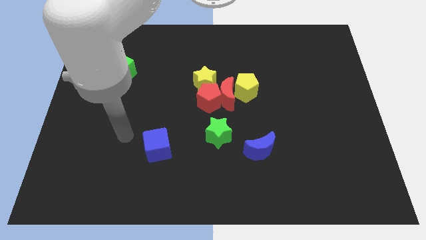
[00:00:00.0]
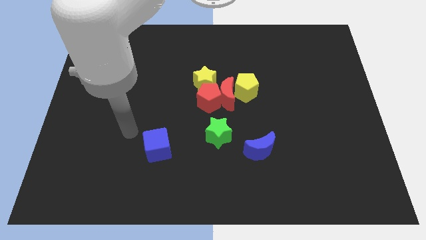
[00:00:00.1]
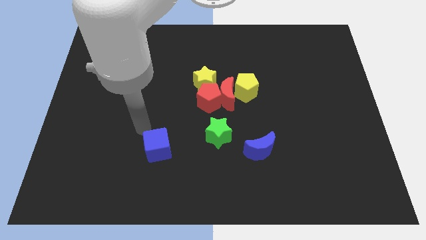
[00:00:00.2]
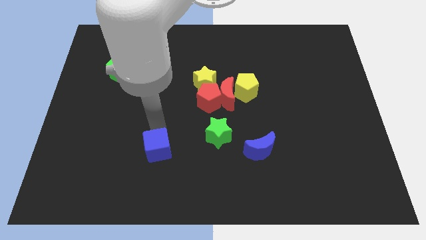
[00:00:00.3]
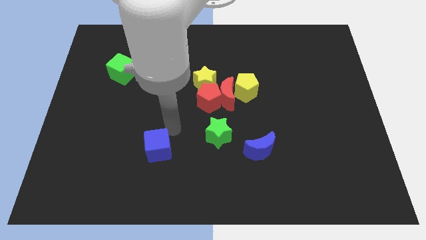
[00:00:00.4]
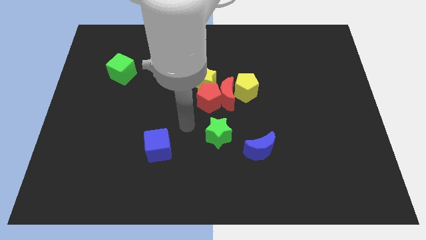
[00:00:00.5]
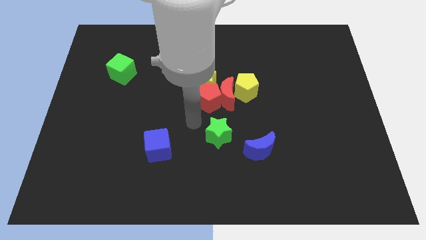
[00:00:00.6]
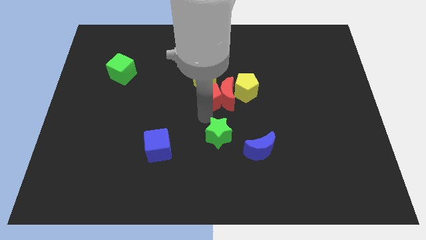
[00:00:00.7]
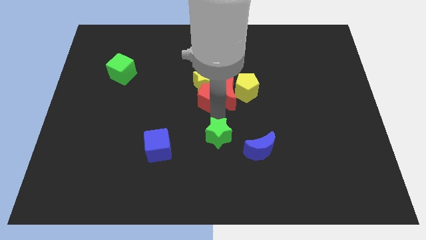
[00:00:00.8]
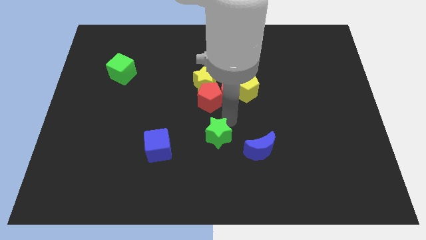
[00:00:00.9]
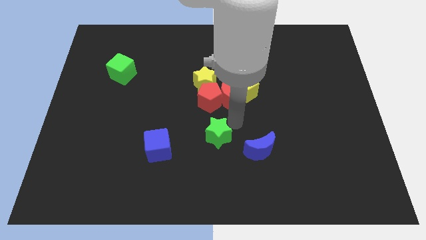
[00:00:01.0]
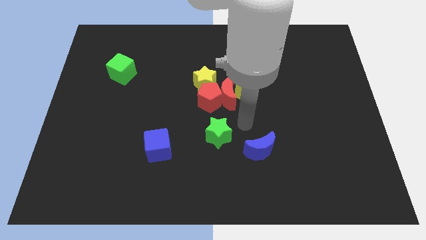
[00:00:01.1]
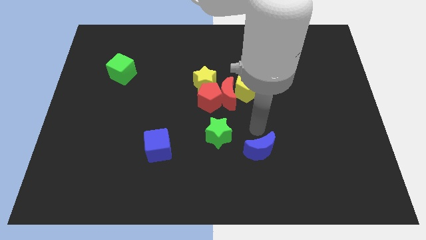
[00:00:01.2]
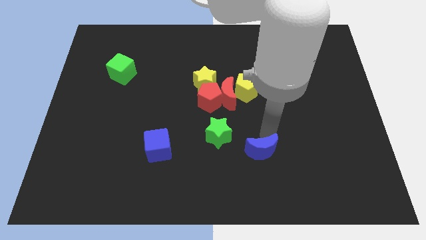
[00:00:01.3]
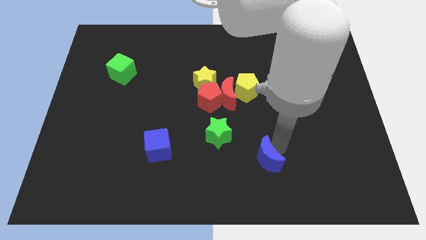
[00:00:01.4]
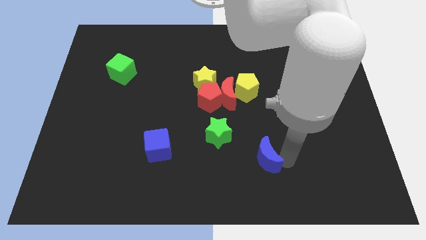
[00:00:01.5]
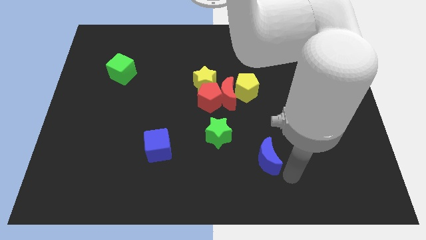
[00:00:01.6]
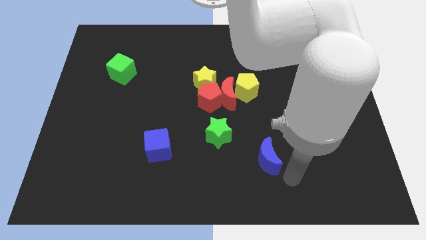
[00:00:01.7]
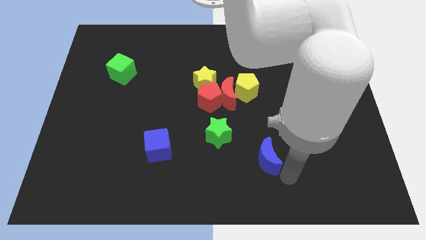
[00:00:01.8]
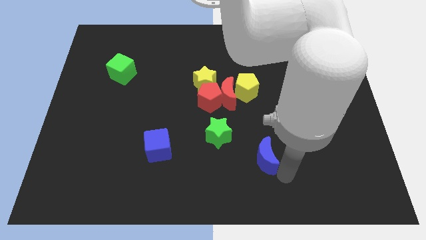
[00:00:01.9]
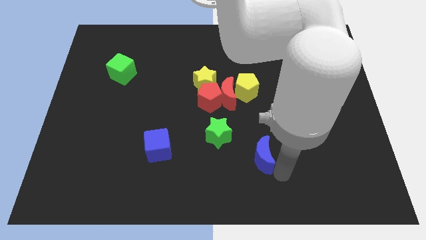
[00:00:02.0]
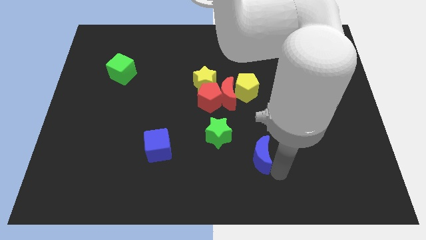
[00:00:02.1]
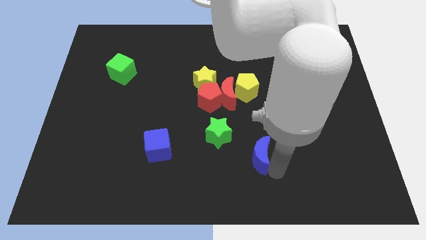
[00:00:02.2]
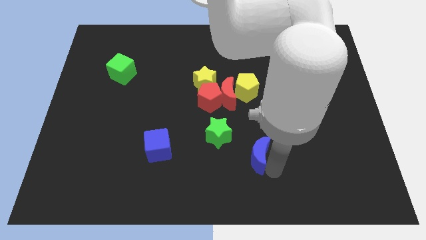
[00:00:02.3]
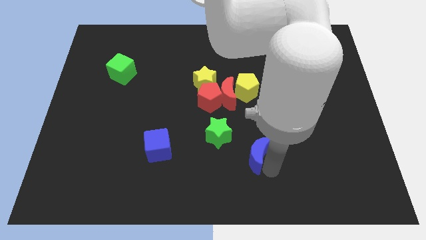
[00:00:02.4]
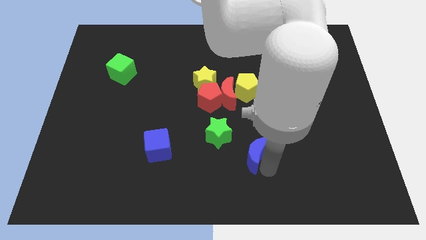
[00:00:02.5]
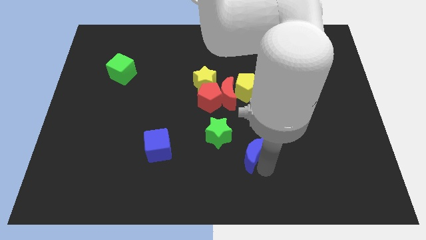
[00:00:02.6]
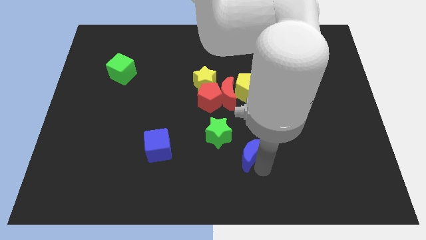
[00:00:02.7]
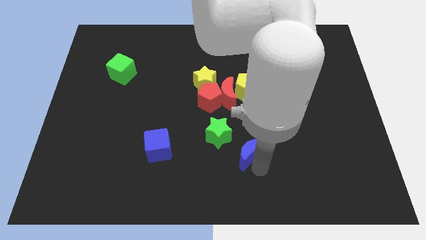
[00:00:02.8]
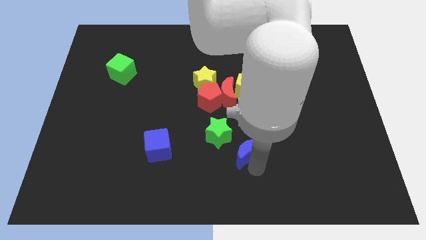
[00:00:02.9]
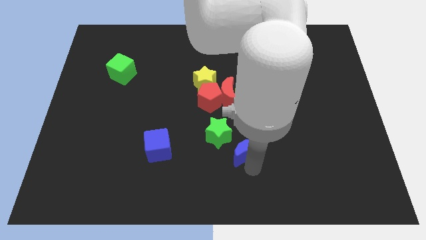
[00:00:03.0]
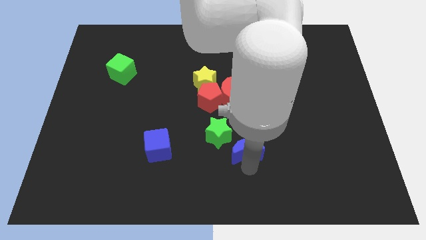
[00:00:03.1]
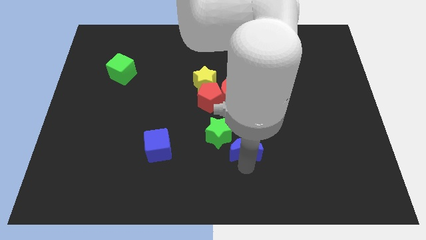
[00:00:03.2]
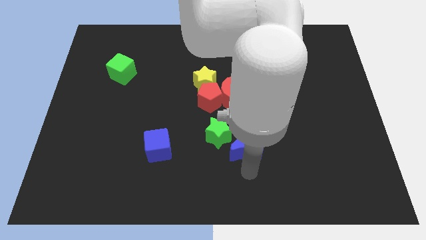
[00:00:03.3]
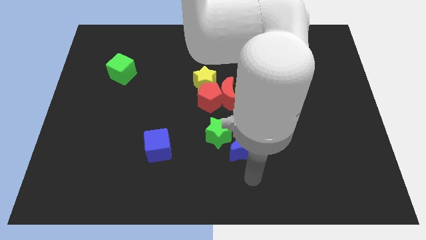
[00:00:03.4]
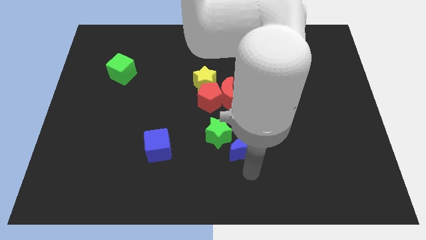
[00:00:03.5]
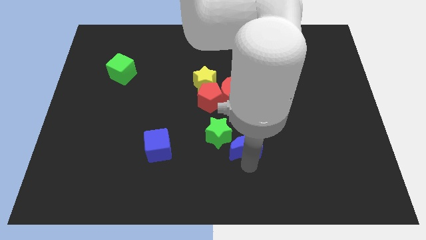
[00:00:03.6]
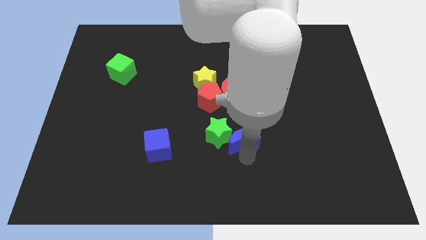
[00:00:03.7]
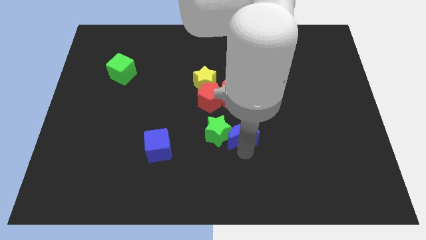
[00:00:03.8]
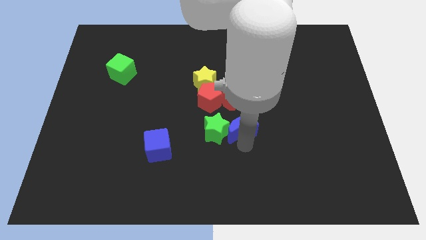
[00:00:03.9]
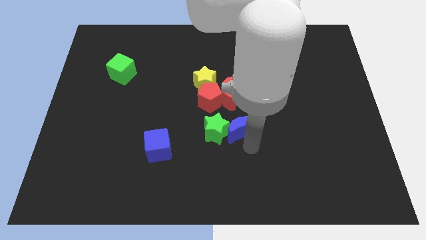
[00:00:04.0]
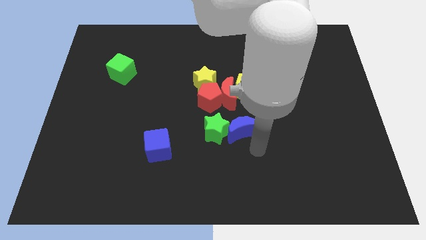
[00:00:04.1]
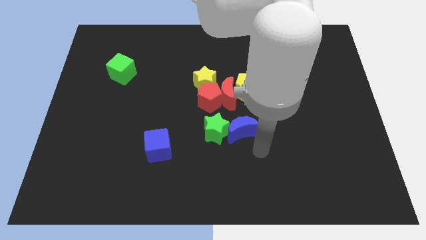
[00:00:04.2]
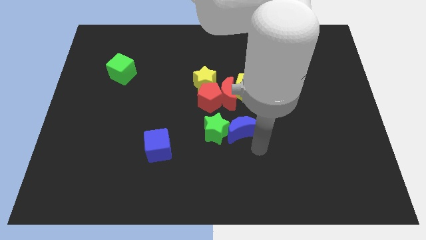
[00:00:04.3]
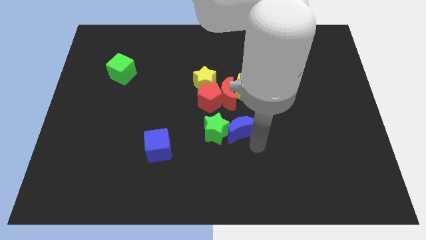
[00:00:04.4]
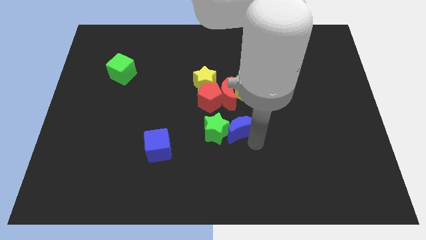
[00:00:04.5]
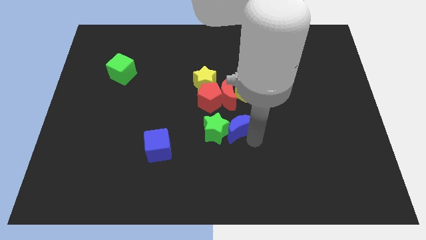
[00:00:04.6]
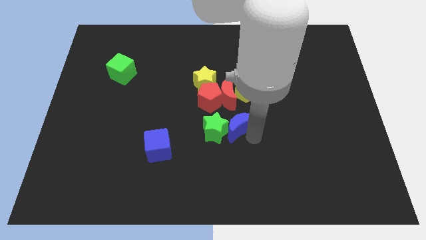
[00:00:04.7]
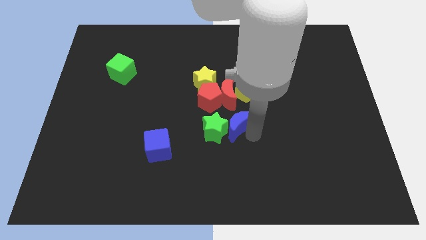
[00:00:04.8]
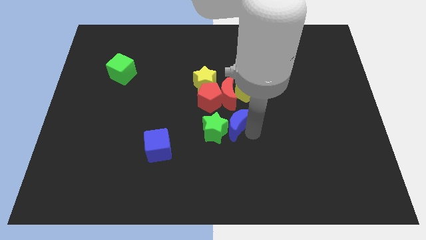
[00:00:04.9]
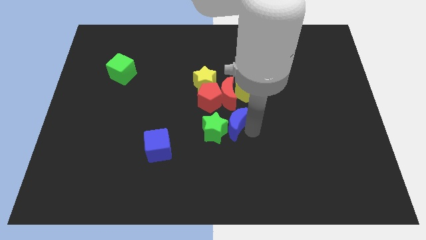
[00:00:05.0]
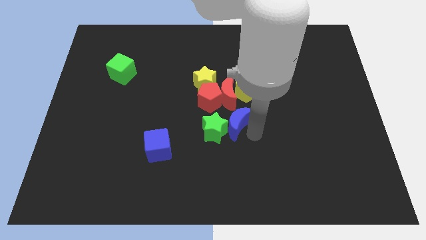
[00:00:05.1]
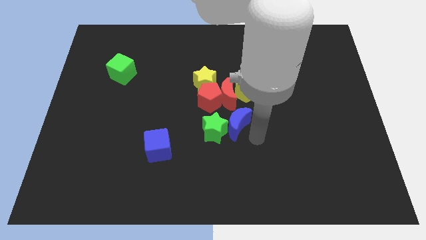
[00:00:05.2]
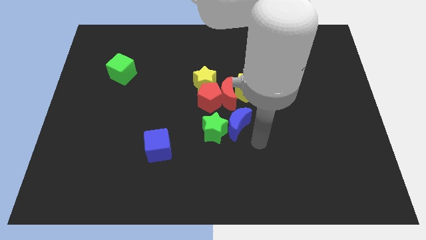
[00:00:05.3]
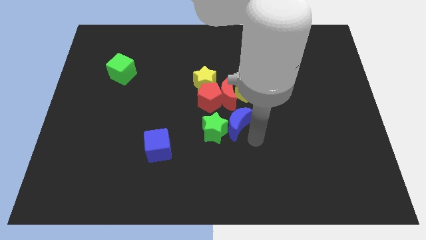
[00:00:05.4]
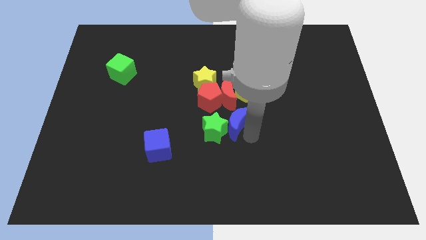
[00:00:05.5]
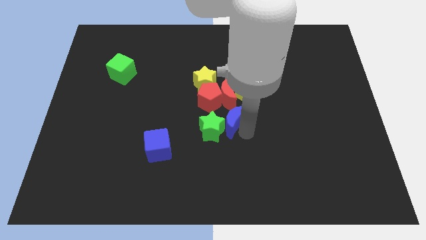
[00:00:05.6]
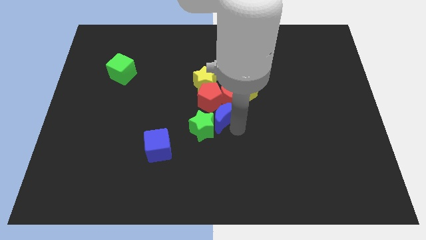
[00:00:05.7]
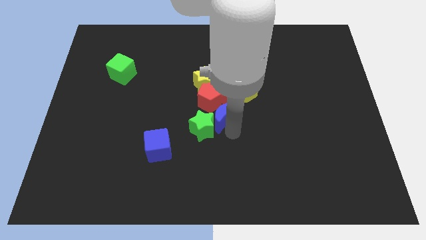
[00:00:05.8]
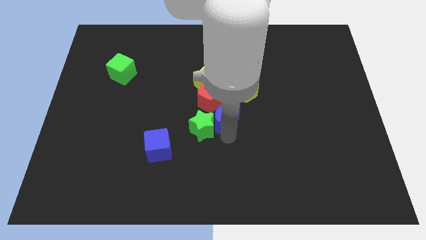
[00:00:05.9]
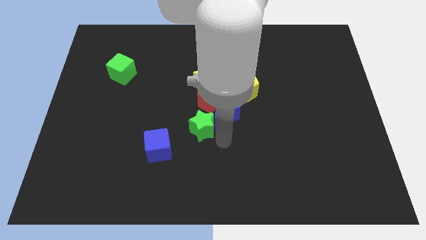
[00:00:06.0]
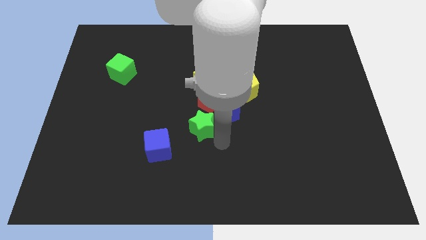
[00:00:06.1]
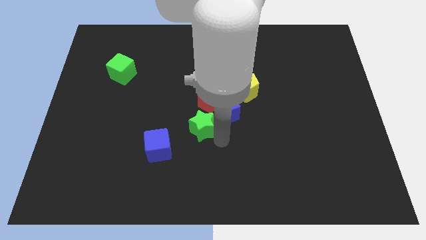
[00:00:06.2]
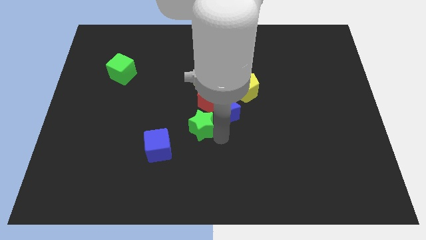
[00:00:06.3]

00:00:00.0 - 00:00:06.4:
move the blue moon towards the red moon

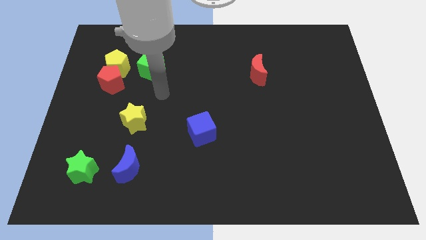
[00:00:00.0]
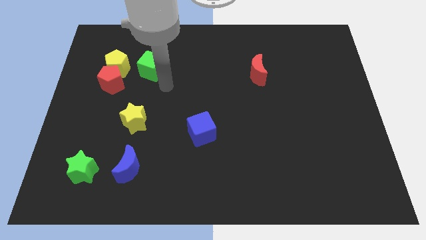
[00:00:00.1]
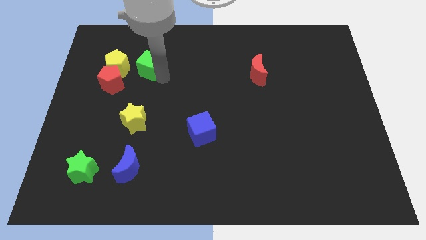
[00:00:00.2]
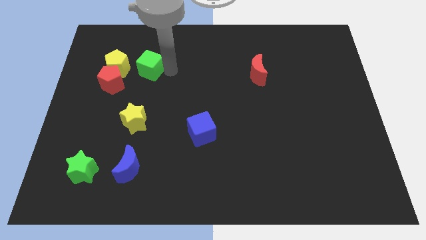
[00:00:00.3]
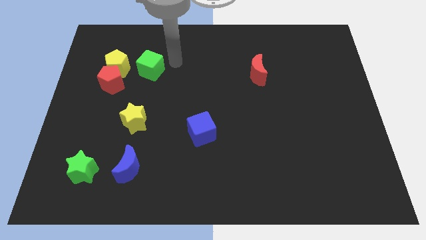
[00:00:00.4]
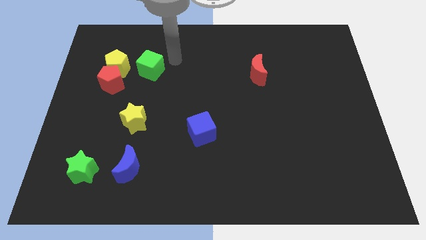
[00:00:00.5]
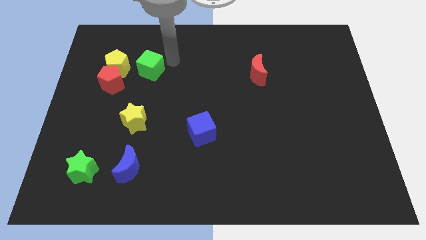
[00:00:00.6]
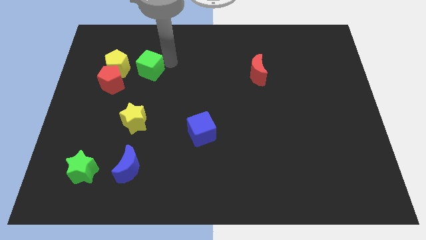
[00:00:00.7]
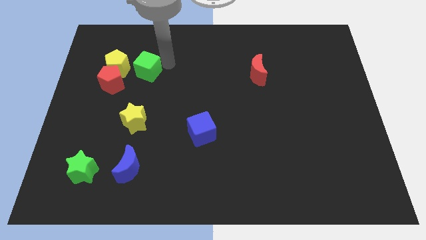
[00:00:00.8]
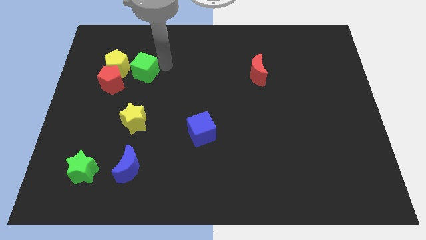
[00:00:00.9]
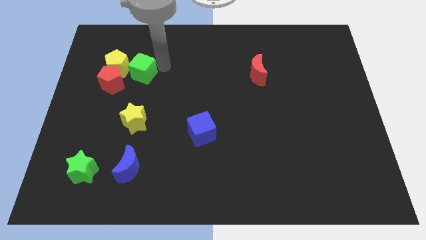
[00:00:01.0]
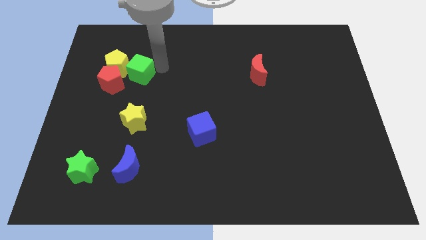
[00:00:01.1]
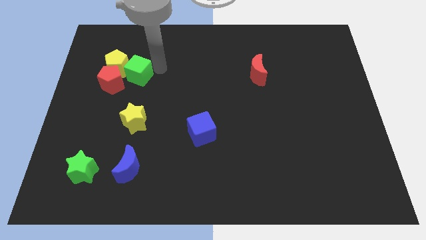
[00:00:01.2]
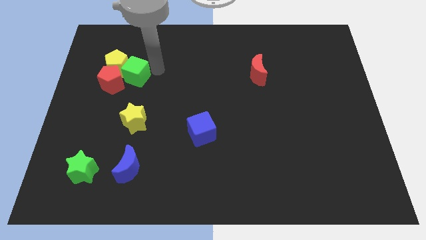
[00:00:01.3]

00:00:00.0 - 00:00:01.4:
move the green cube next to the red pentagon
